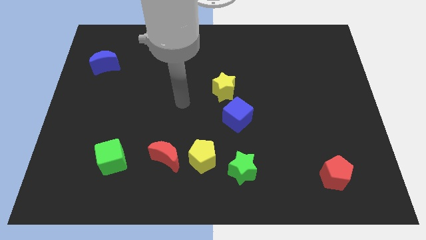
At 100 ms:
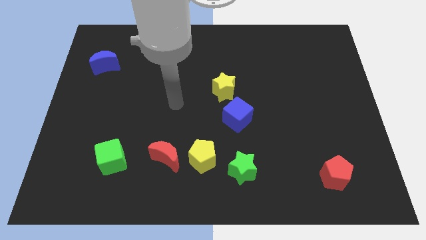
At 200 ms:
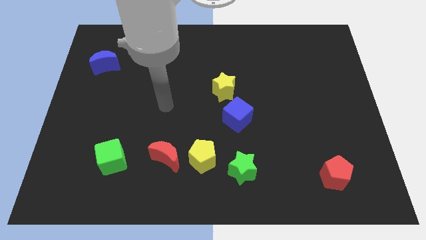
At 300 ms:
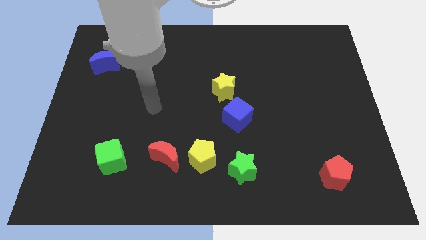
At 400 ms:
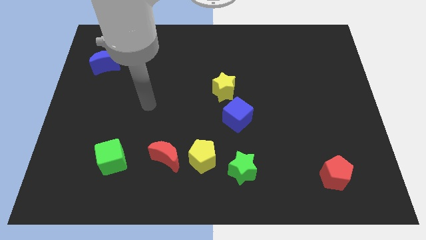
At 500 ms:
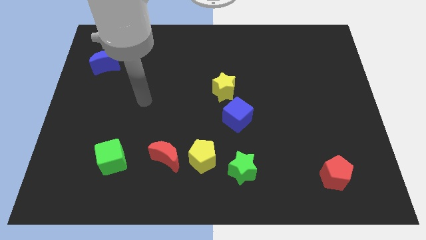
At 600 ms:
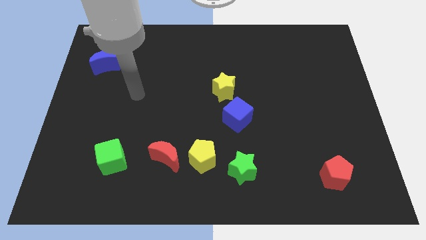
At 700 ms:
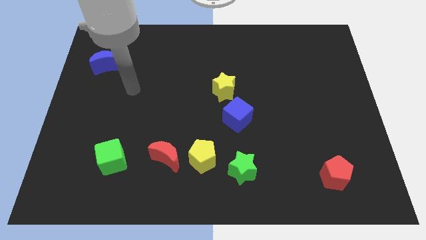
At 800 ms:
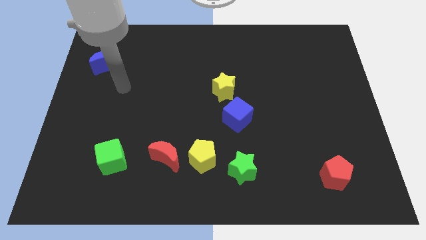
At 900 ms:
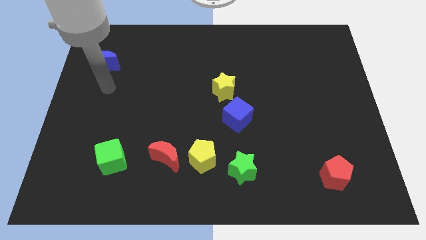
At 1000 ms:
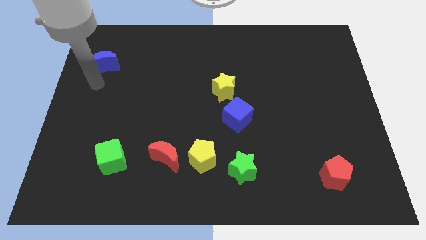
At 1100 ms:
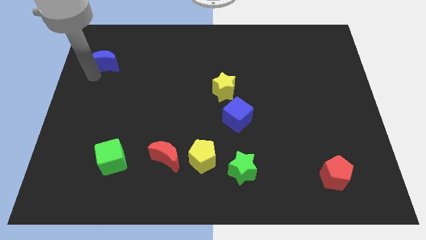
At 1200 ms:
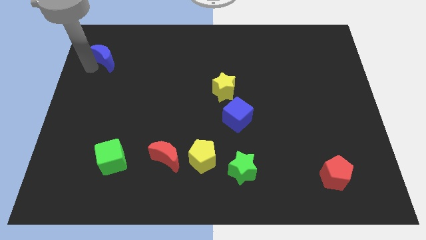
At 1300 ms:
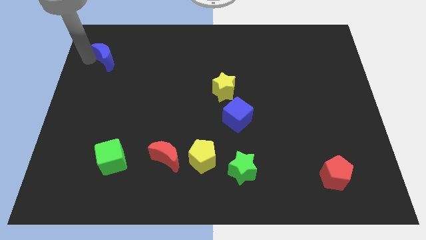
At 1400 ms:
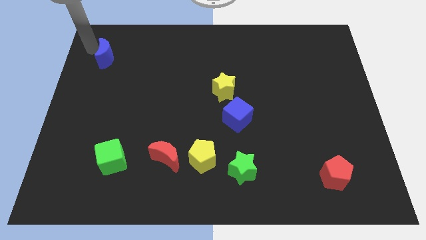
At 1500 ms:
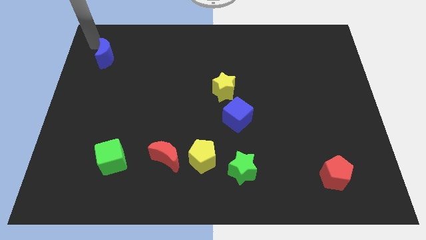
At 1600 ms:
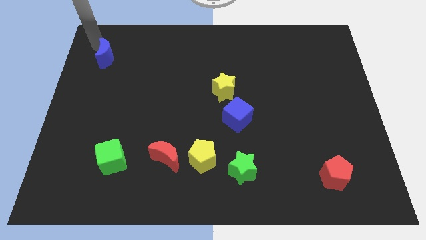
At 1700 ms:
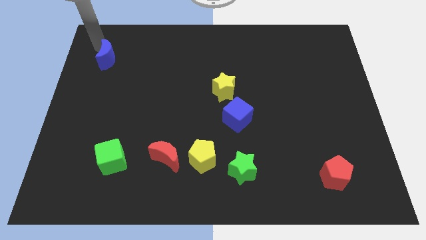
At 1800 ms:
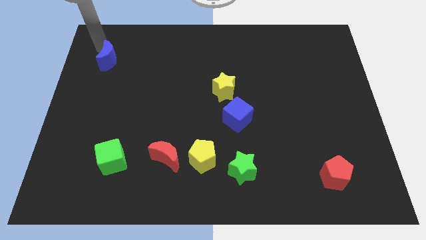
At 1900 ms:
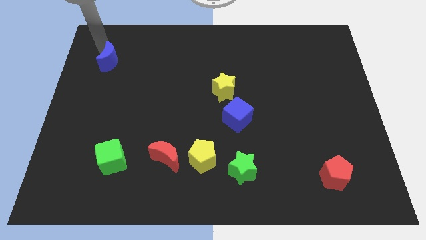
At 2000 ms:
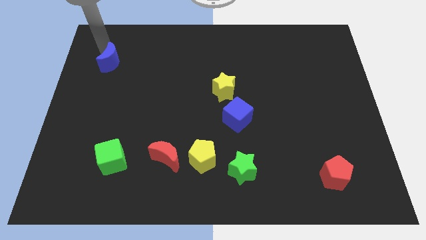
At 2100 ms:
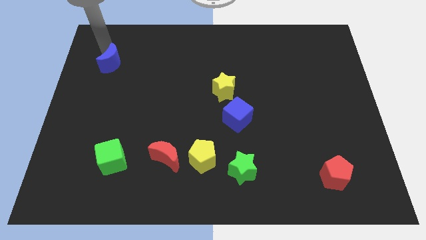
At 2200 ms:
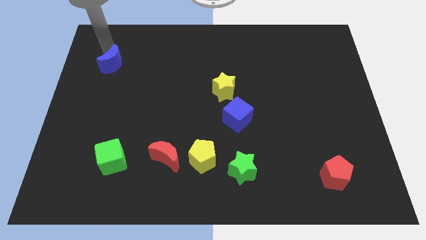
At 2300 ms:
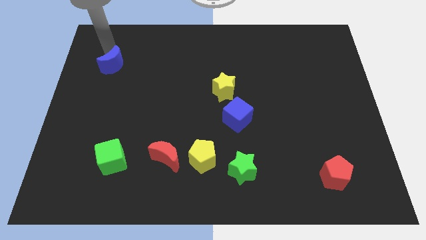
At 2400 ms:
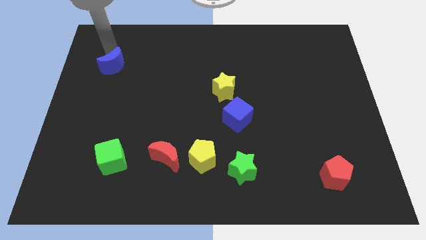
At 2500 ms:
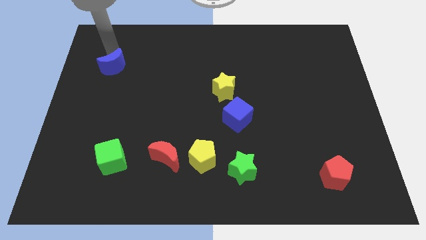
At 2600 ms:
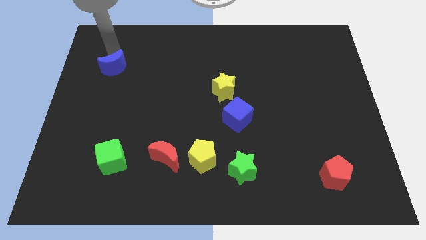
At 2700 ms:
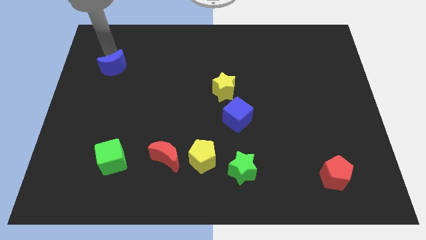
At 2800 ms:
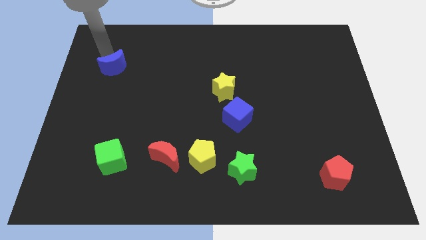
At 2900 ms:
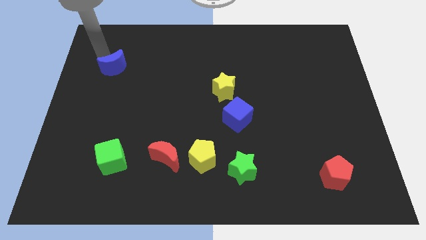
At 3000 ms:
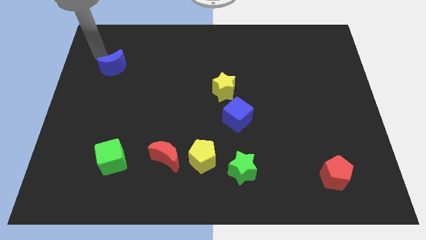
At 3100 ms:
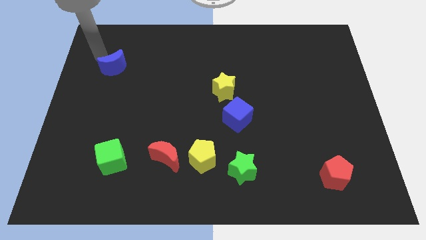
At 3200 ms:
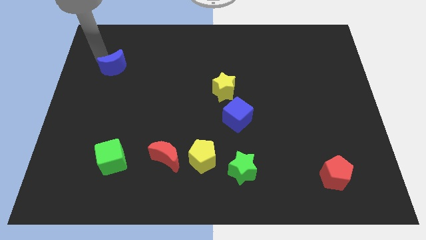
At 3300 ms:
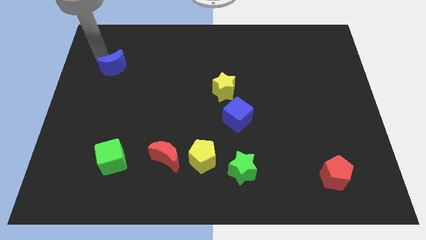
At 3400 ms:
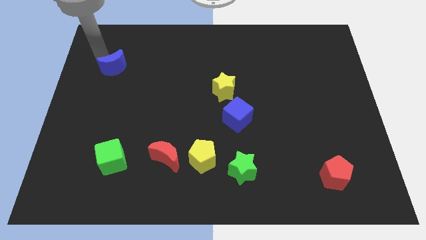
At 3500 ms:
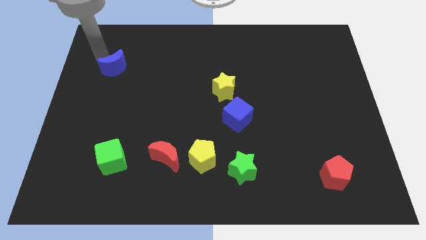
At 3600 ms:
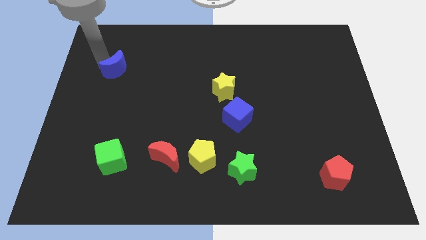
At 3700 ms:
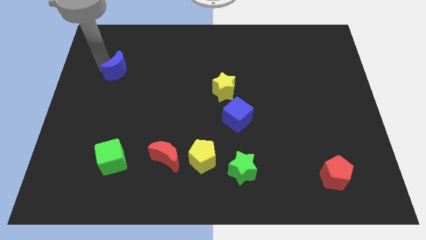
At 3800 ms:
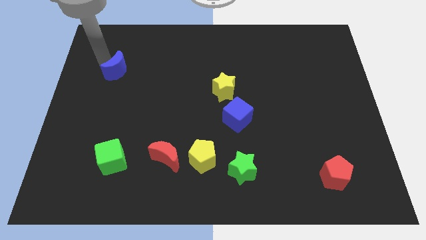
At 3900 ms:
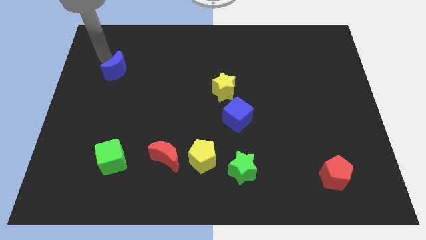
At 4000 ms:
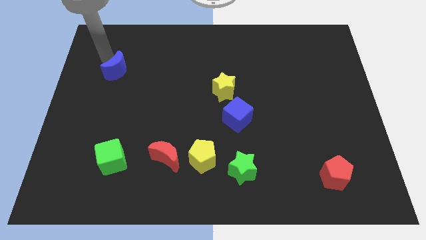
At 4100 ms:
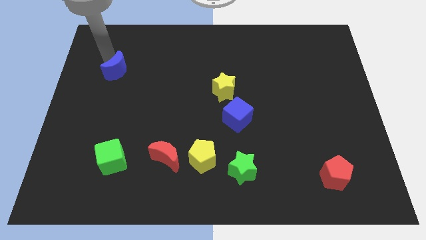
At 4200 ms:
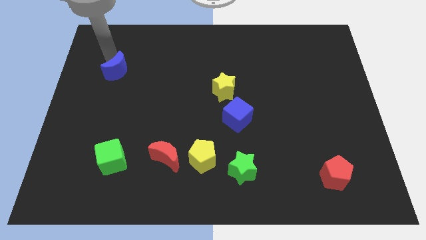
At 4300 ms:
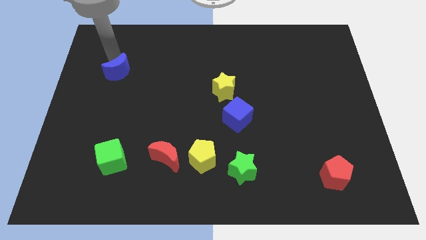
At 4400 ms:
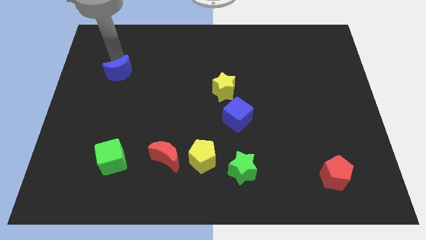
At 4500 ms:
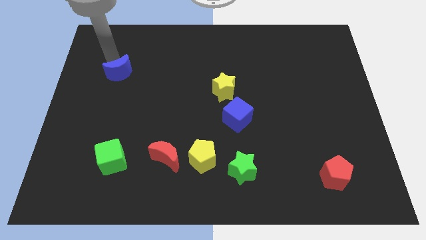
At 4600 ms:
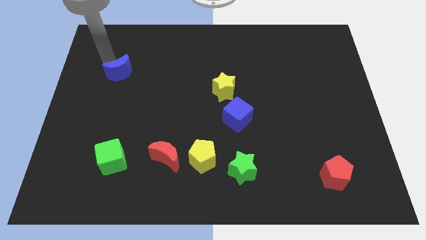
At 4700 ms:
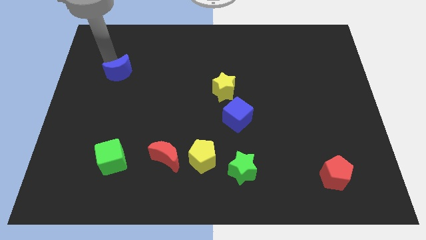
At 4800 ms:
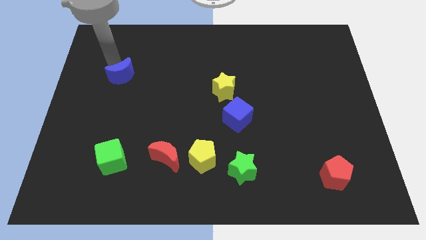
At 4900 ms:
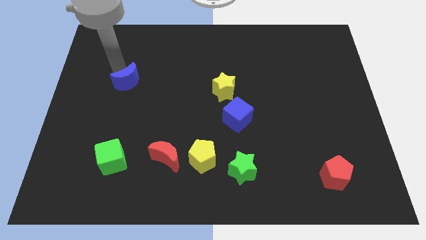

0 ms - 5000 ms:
slightly push the blue moon down and then right

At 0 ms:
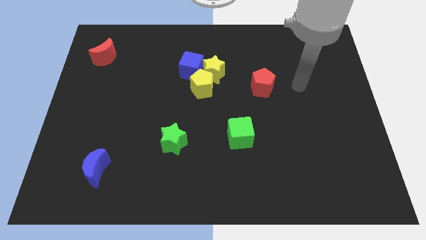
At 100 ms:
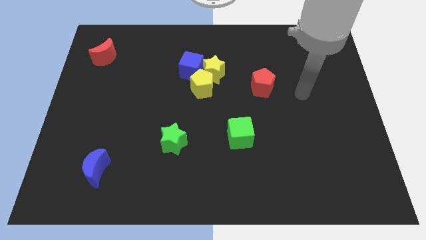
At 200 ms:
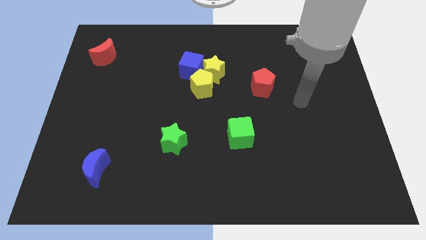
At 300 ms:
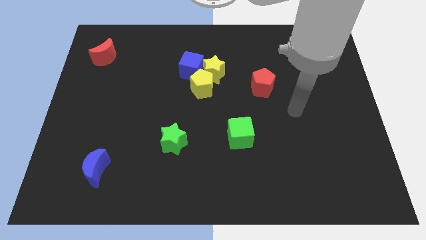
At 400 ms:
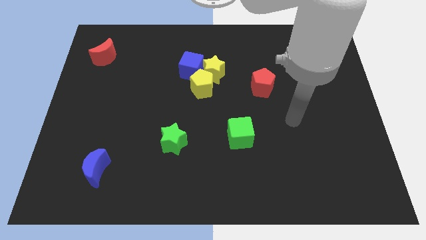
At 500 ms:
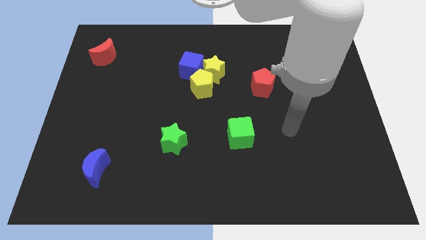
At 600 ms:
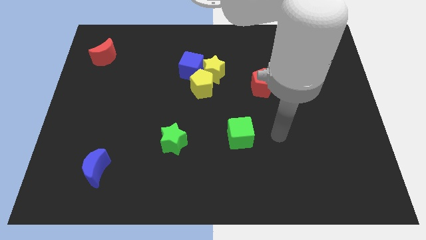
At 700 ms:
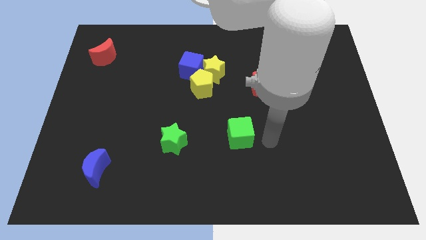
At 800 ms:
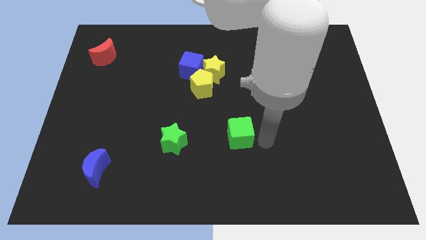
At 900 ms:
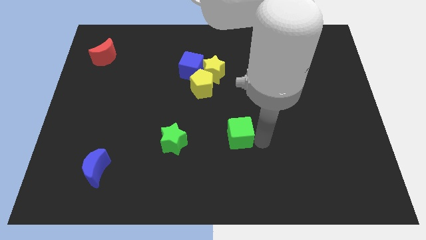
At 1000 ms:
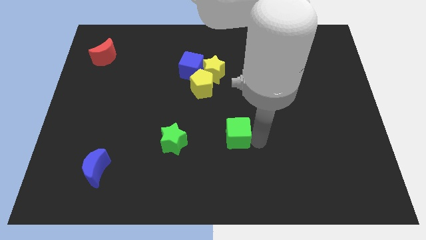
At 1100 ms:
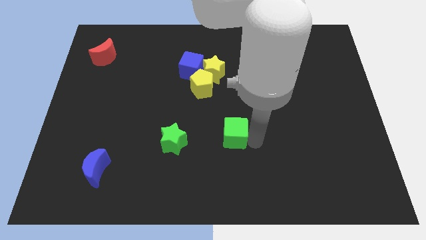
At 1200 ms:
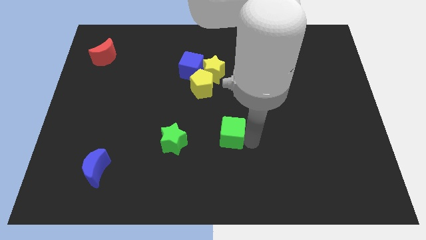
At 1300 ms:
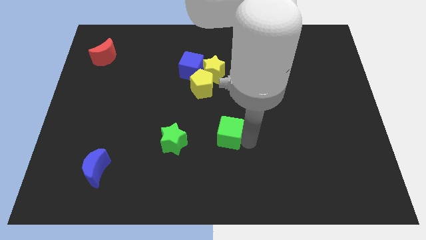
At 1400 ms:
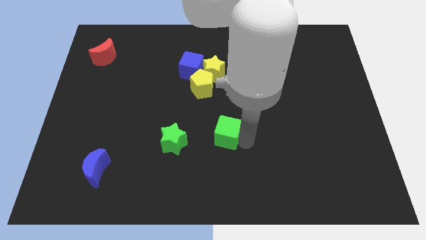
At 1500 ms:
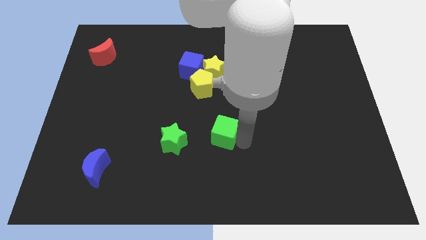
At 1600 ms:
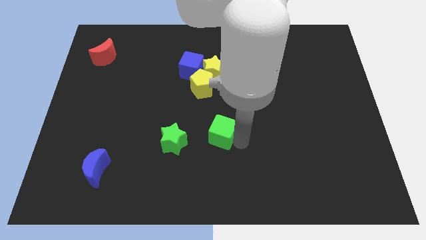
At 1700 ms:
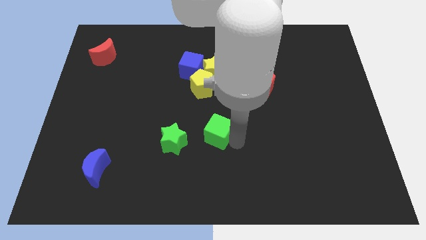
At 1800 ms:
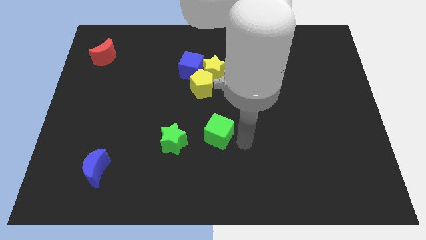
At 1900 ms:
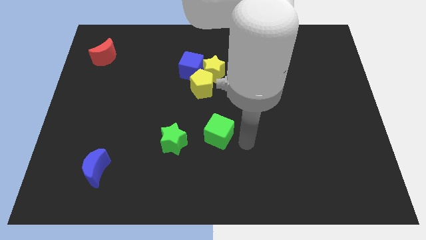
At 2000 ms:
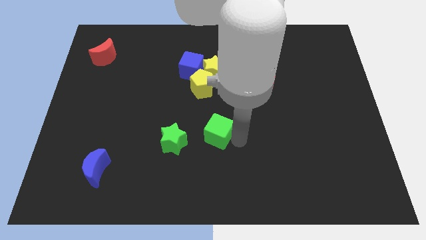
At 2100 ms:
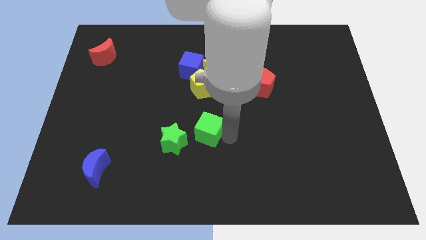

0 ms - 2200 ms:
move the green cube to the left a bit

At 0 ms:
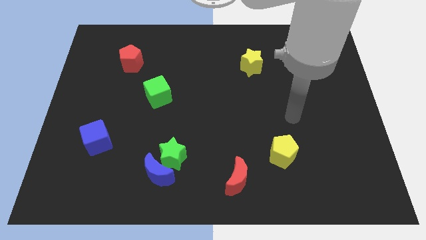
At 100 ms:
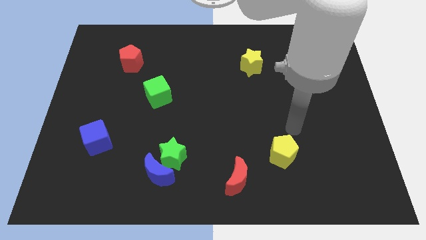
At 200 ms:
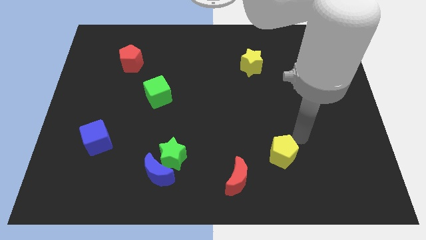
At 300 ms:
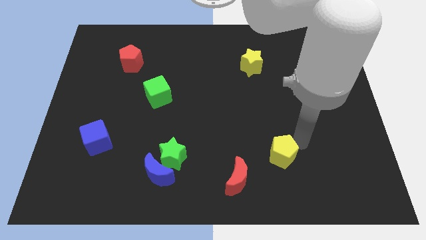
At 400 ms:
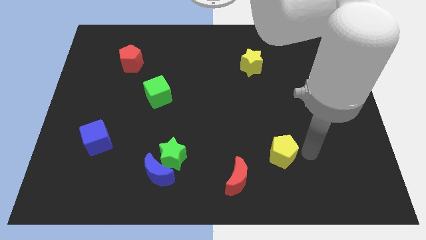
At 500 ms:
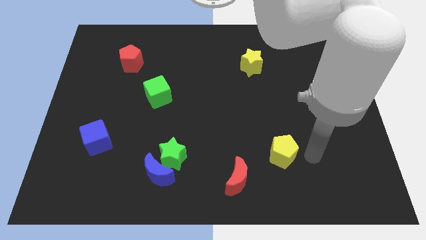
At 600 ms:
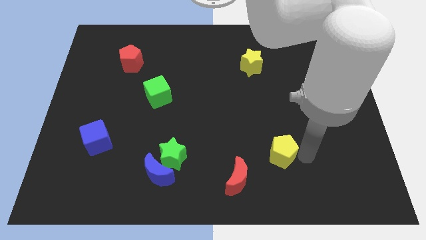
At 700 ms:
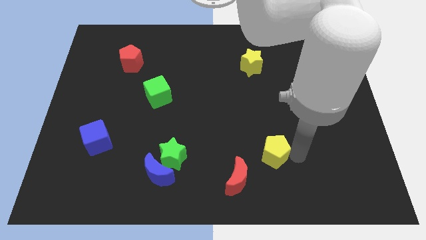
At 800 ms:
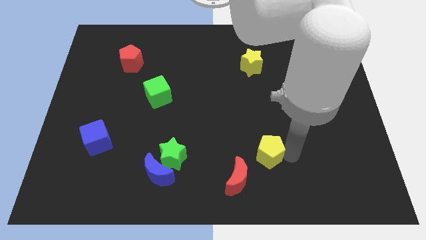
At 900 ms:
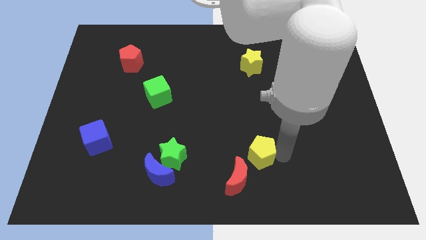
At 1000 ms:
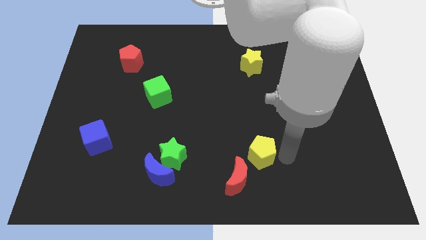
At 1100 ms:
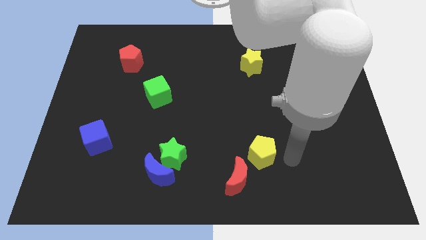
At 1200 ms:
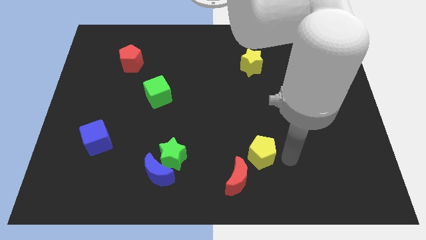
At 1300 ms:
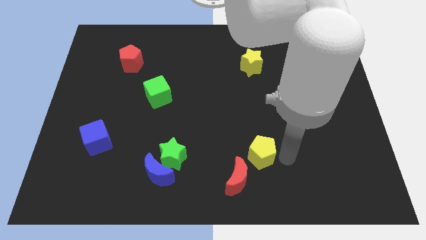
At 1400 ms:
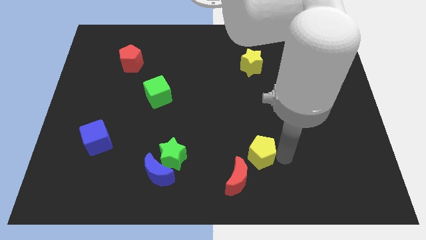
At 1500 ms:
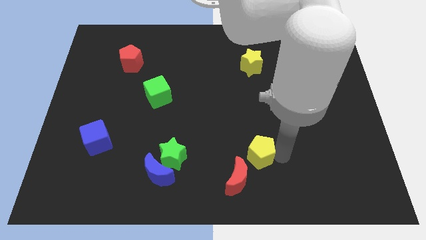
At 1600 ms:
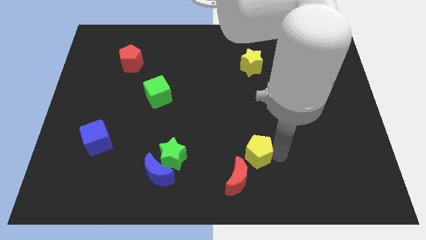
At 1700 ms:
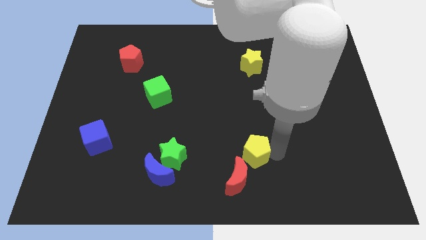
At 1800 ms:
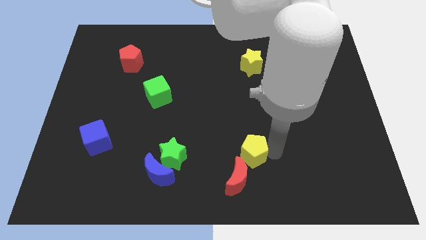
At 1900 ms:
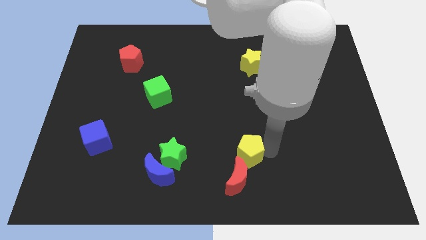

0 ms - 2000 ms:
push the yellow pentagon to the left a little bit
